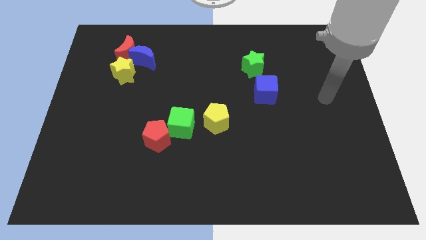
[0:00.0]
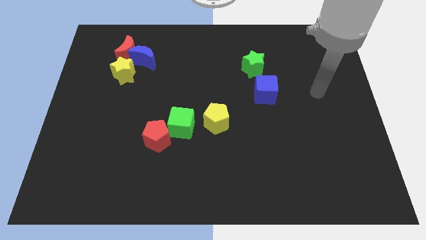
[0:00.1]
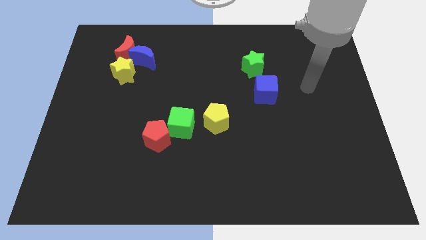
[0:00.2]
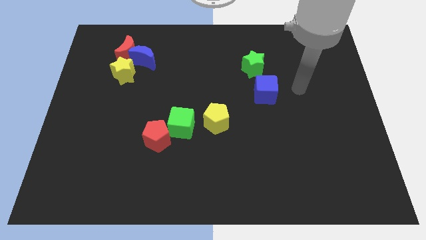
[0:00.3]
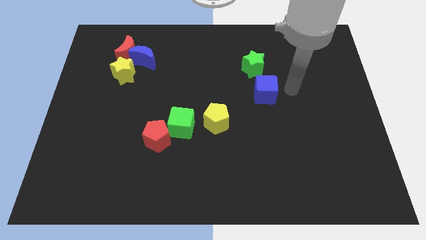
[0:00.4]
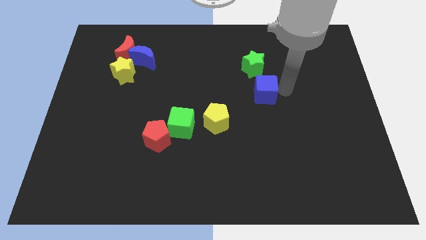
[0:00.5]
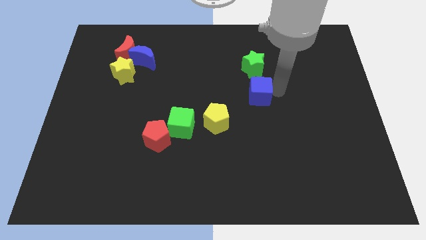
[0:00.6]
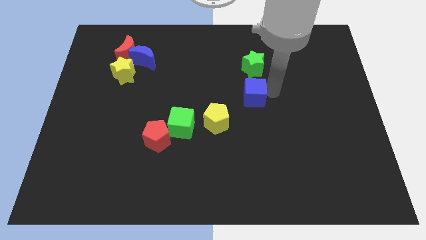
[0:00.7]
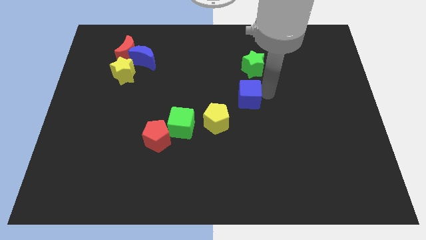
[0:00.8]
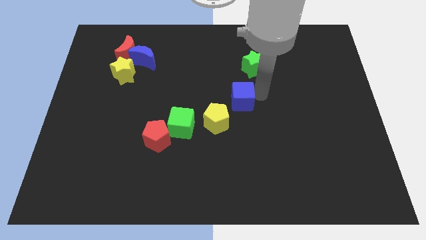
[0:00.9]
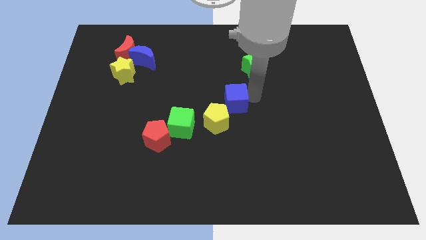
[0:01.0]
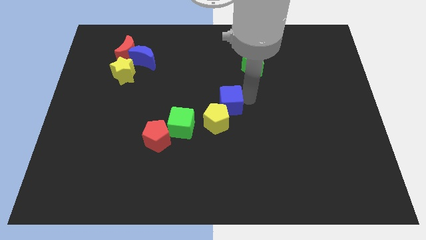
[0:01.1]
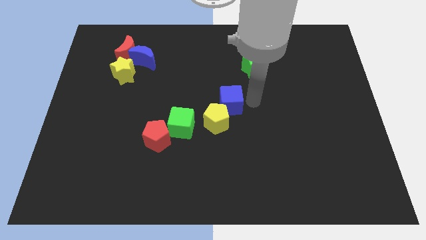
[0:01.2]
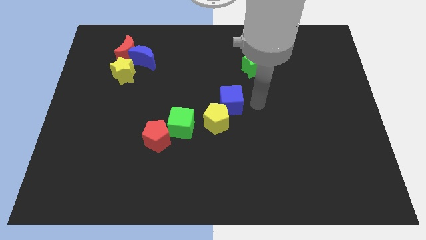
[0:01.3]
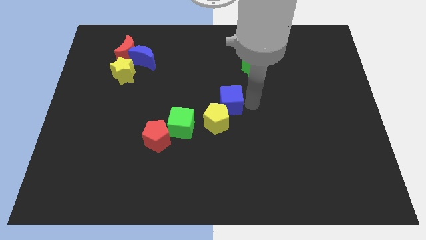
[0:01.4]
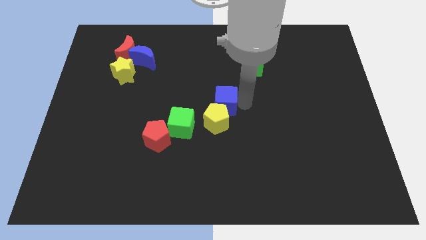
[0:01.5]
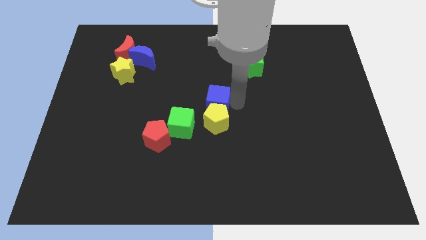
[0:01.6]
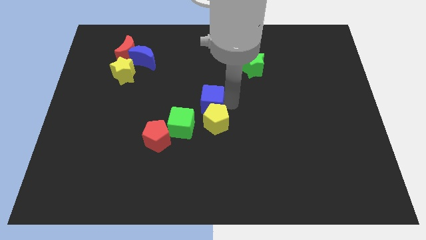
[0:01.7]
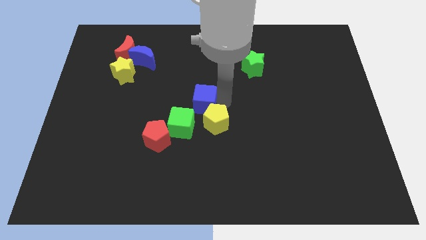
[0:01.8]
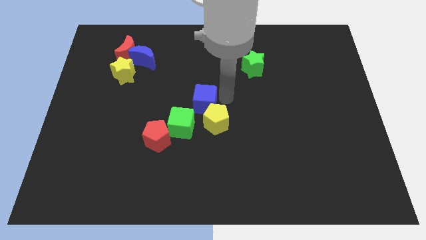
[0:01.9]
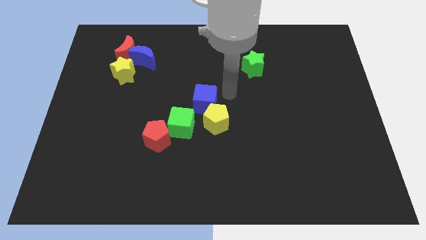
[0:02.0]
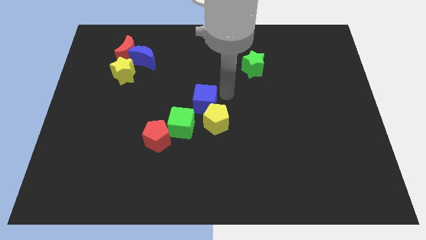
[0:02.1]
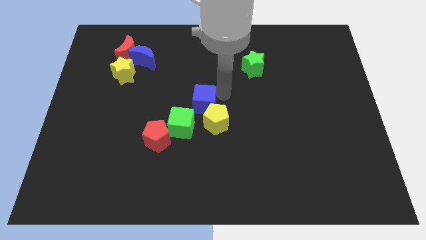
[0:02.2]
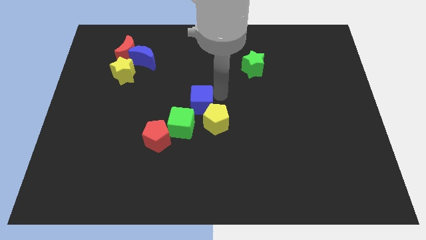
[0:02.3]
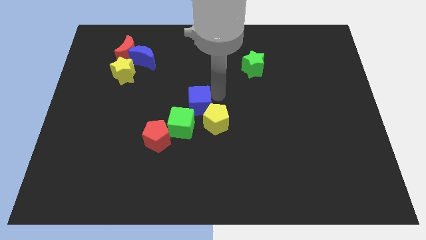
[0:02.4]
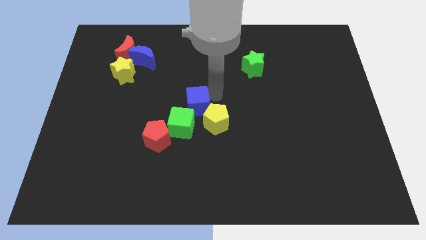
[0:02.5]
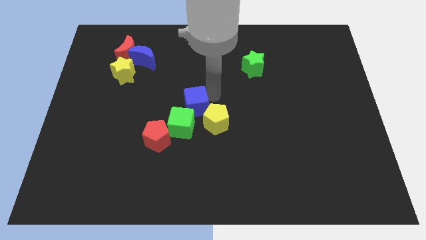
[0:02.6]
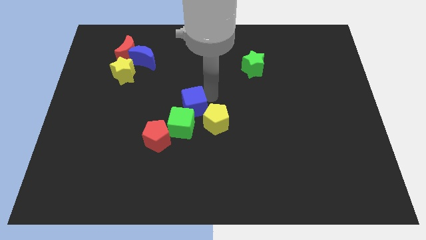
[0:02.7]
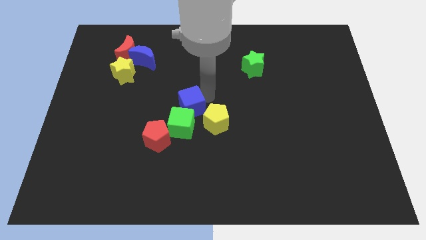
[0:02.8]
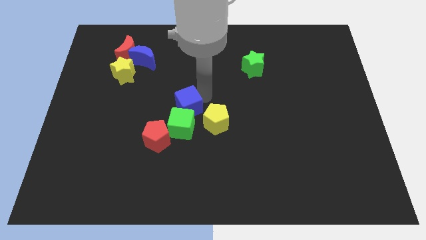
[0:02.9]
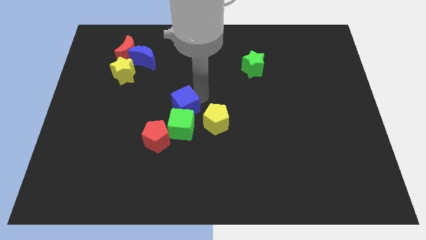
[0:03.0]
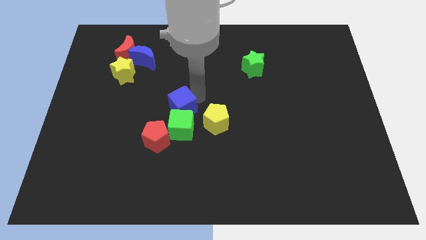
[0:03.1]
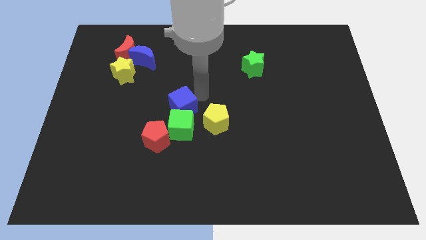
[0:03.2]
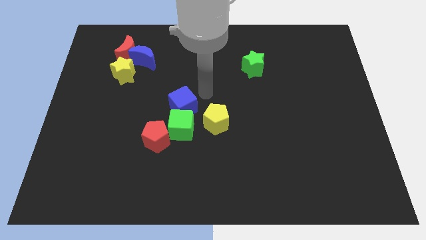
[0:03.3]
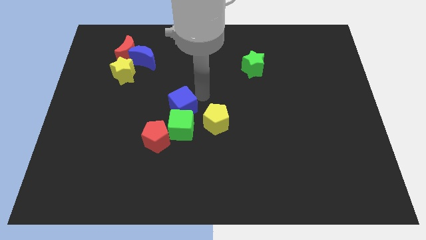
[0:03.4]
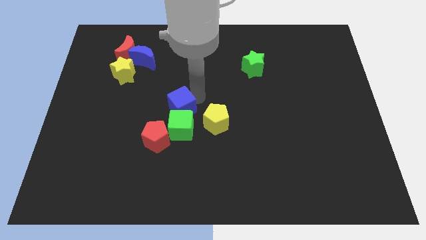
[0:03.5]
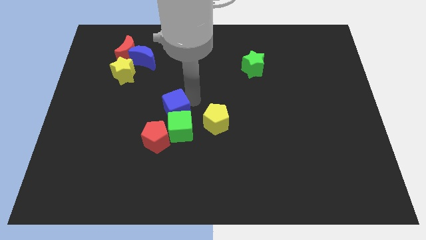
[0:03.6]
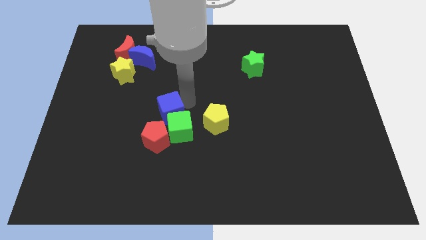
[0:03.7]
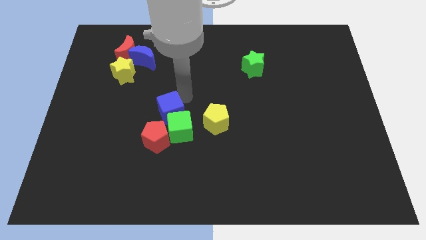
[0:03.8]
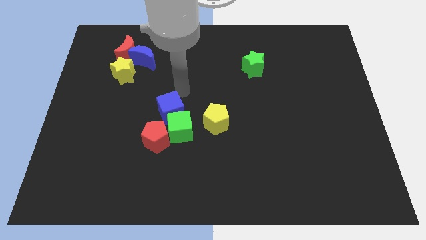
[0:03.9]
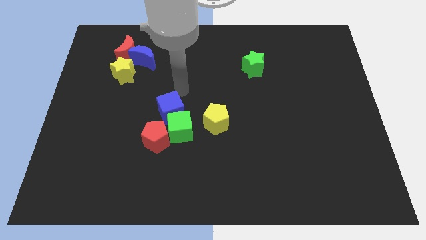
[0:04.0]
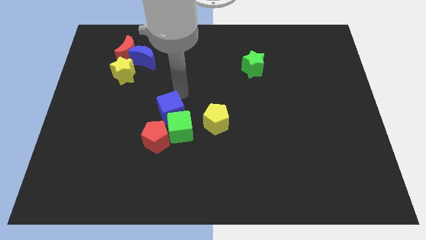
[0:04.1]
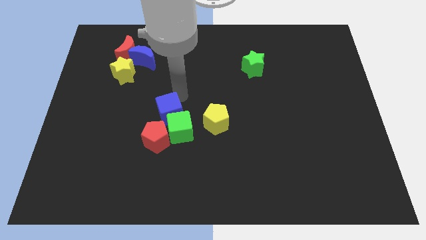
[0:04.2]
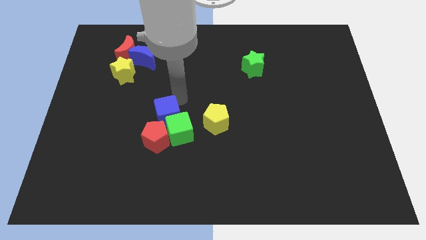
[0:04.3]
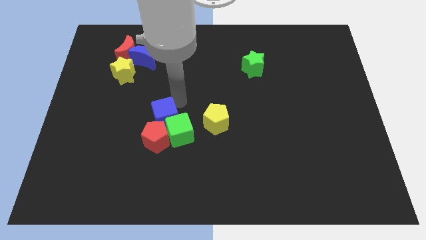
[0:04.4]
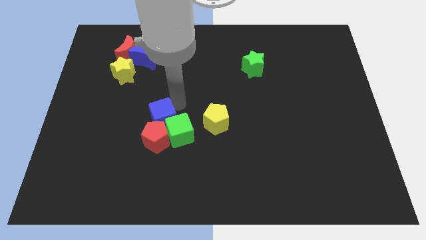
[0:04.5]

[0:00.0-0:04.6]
slide the blue cube close to the red pentagon

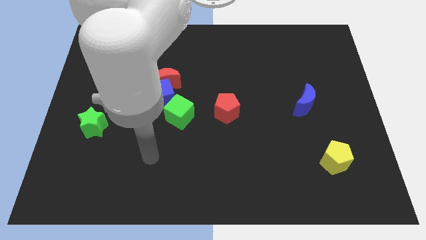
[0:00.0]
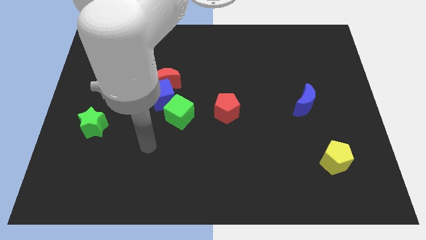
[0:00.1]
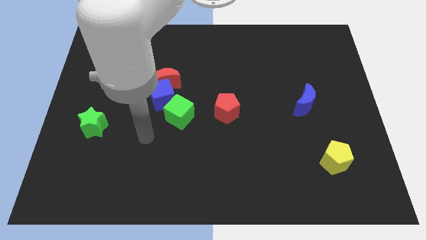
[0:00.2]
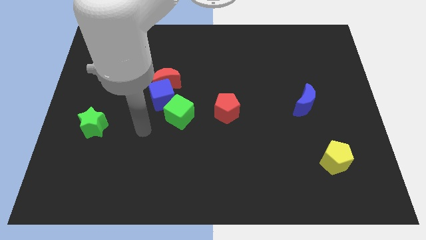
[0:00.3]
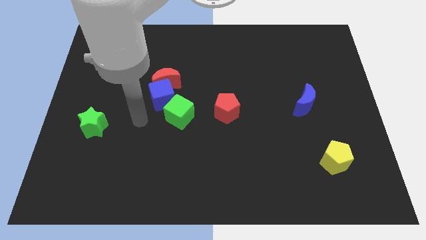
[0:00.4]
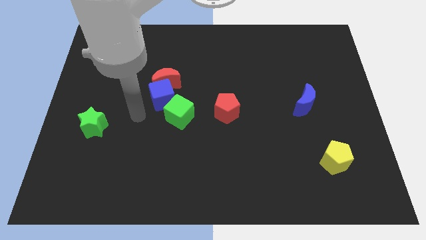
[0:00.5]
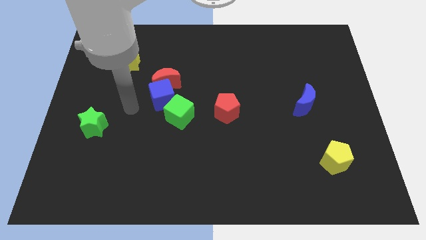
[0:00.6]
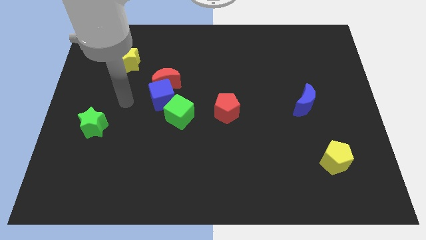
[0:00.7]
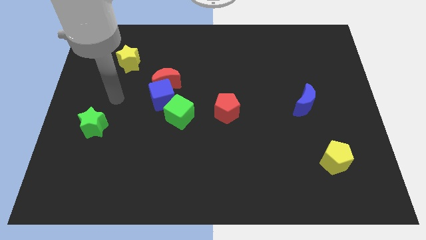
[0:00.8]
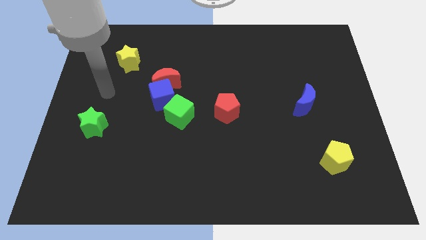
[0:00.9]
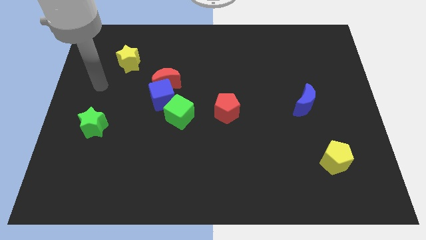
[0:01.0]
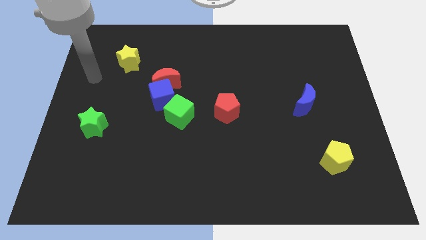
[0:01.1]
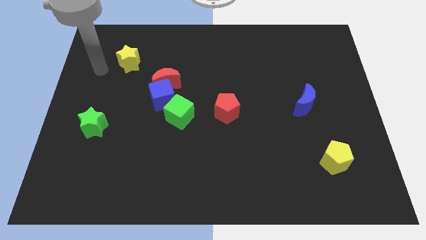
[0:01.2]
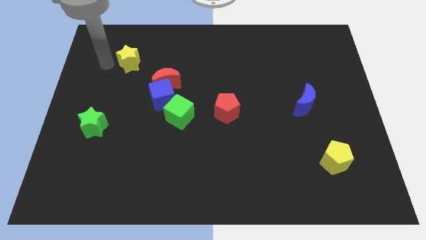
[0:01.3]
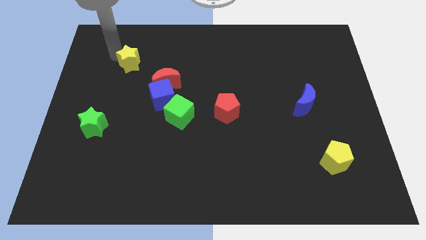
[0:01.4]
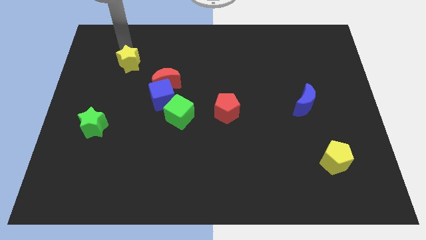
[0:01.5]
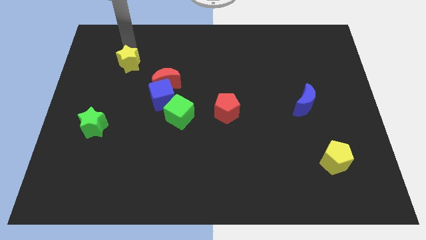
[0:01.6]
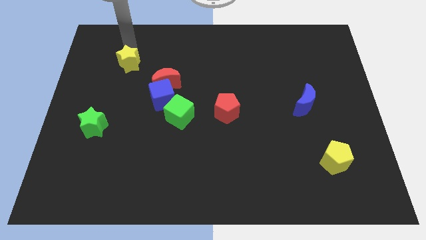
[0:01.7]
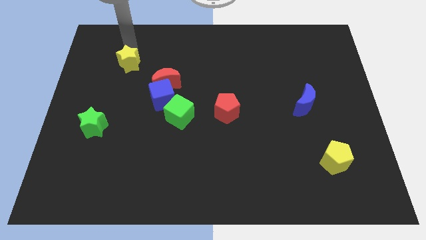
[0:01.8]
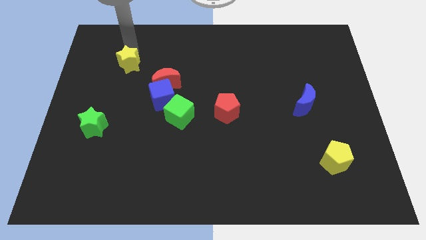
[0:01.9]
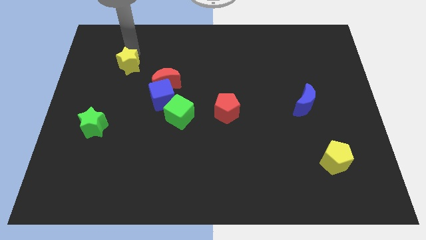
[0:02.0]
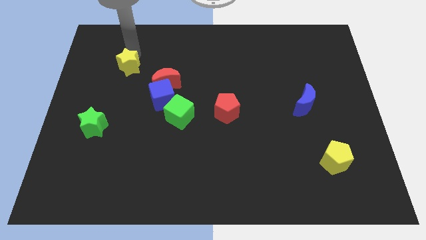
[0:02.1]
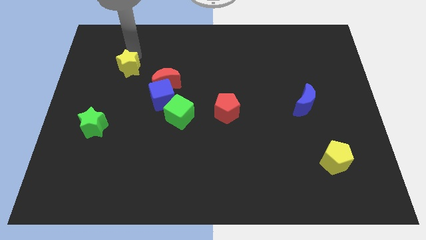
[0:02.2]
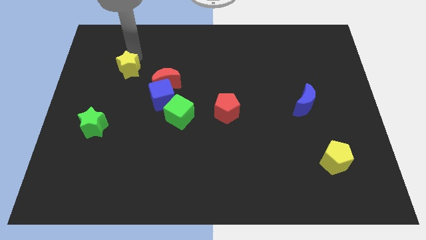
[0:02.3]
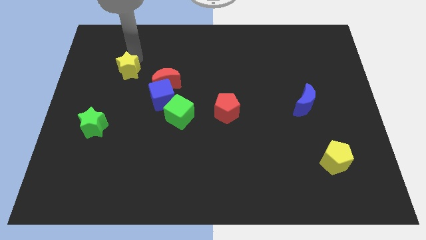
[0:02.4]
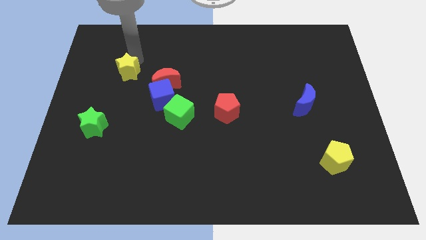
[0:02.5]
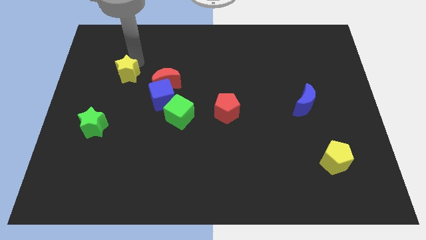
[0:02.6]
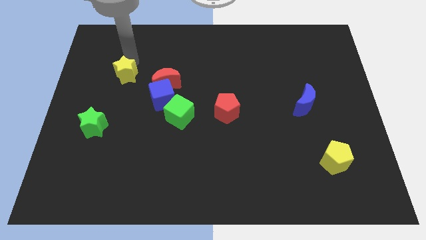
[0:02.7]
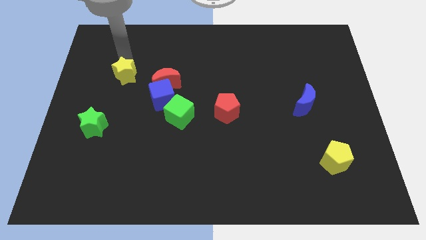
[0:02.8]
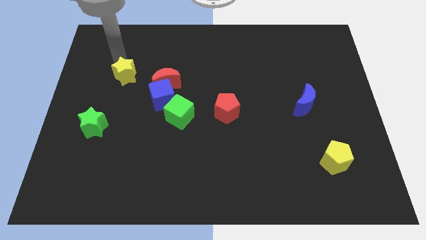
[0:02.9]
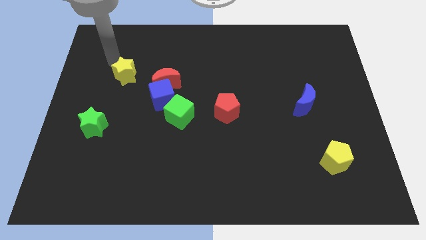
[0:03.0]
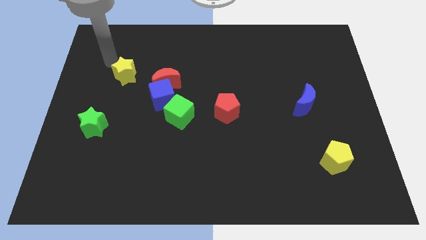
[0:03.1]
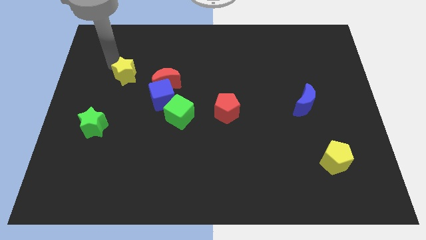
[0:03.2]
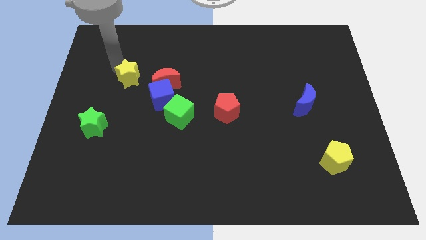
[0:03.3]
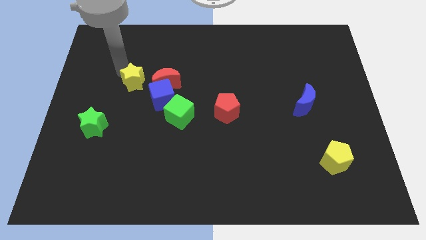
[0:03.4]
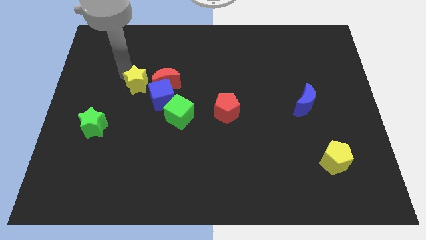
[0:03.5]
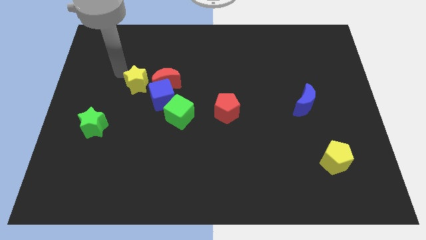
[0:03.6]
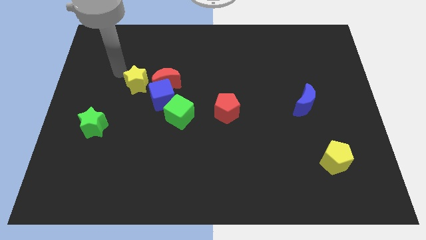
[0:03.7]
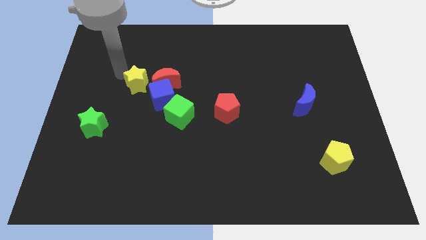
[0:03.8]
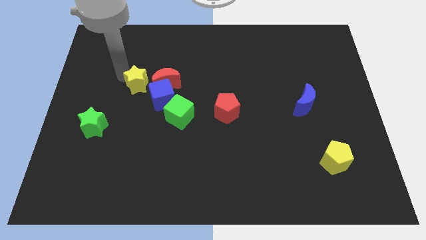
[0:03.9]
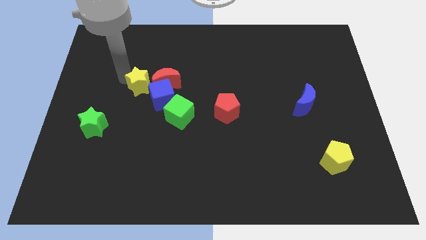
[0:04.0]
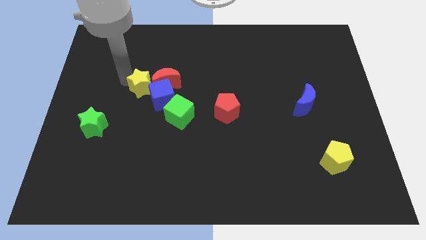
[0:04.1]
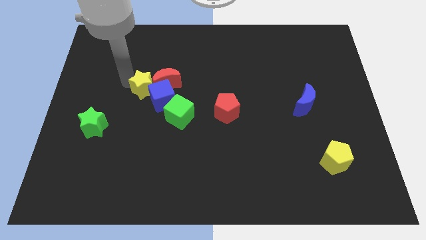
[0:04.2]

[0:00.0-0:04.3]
slide the yellow star towards the blue cube
